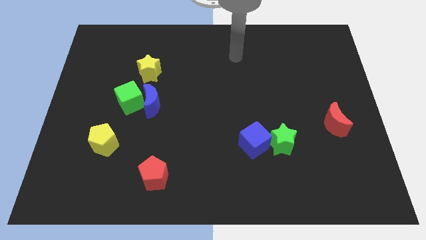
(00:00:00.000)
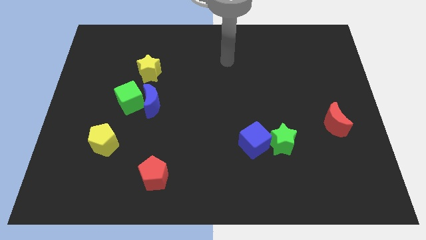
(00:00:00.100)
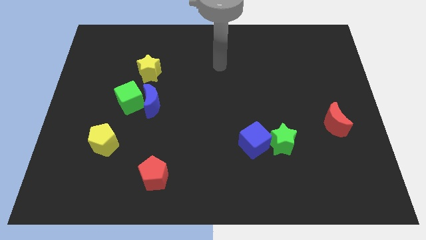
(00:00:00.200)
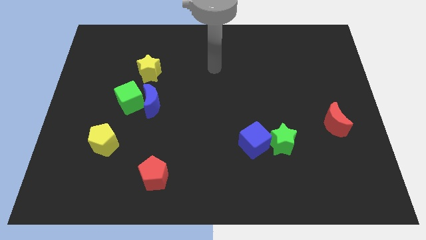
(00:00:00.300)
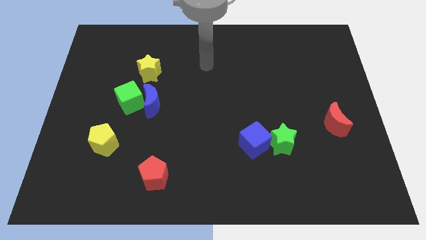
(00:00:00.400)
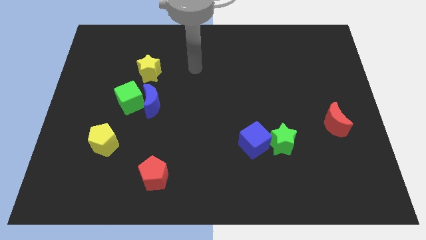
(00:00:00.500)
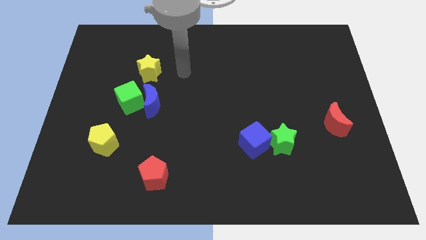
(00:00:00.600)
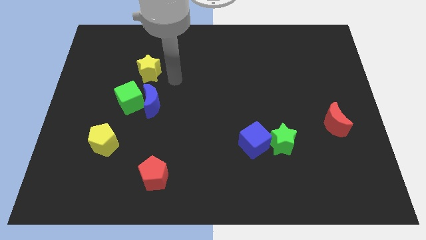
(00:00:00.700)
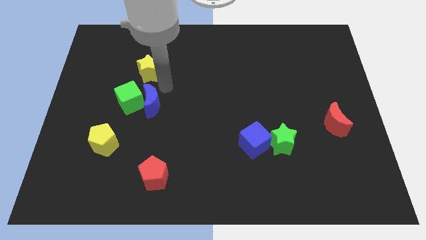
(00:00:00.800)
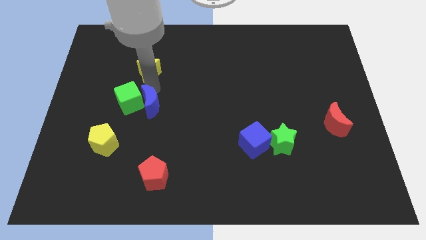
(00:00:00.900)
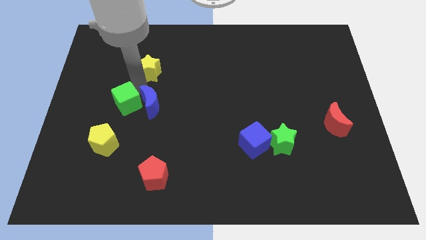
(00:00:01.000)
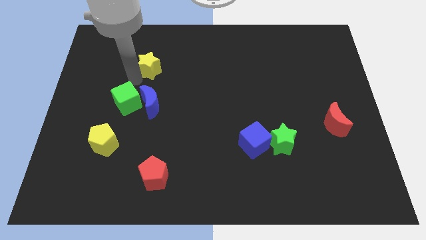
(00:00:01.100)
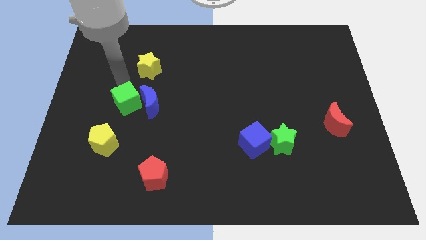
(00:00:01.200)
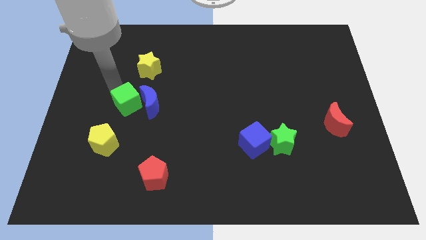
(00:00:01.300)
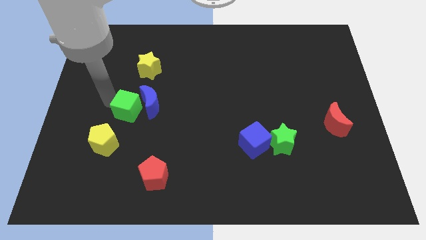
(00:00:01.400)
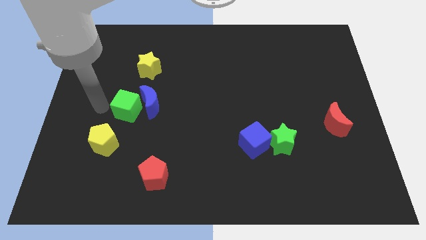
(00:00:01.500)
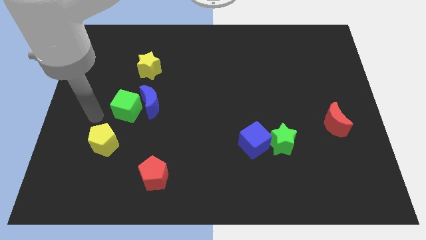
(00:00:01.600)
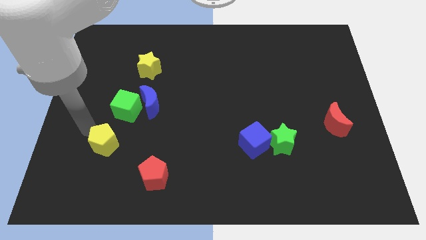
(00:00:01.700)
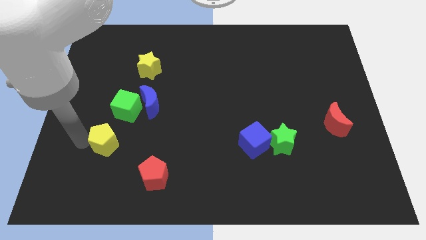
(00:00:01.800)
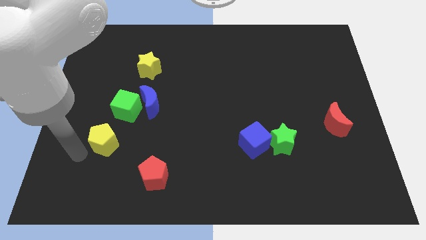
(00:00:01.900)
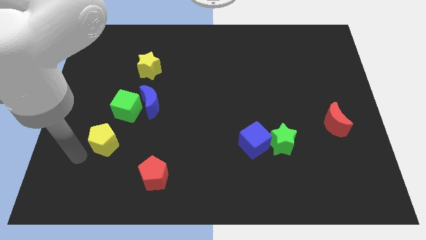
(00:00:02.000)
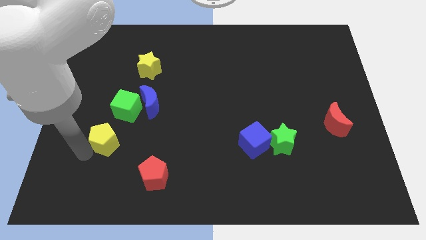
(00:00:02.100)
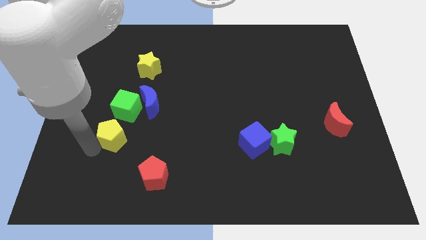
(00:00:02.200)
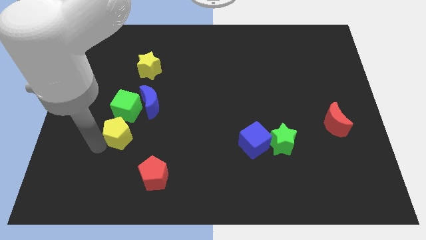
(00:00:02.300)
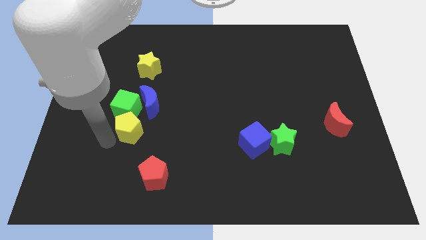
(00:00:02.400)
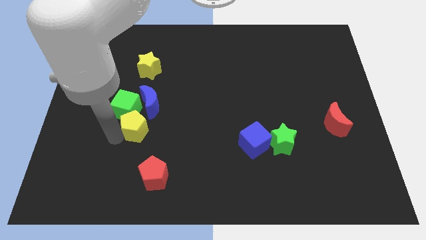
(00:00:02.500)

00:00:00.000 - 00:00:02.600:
slightly push the yellow pentagon up and right

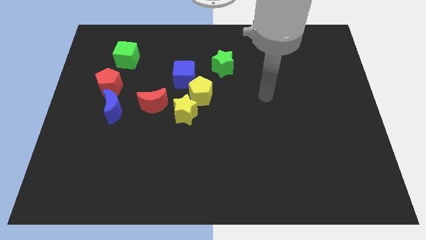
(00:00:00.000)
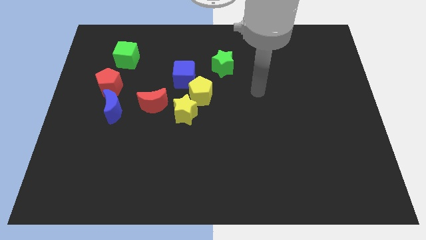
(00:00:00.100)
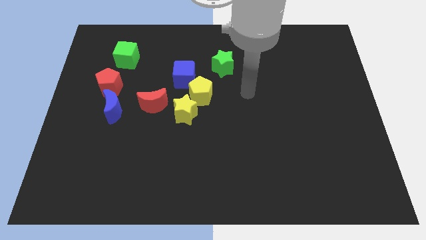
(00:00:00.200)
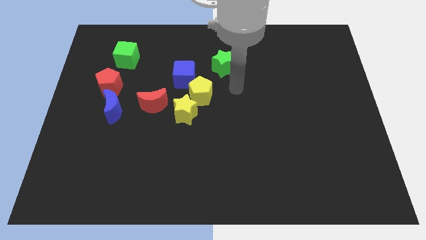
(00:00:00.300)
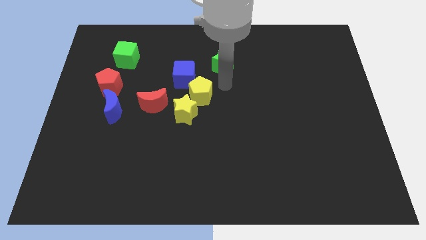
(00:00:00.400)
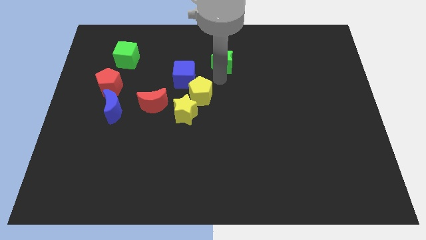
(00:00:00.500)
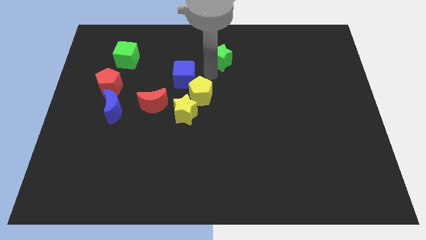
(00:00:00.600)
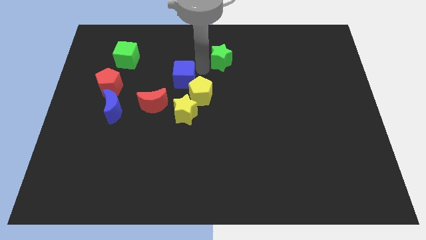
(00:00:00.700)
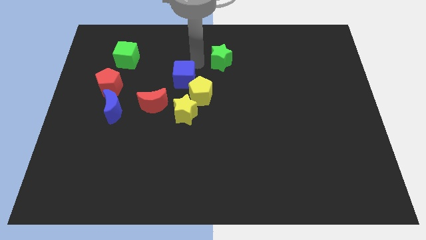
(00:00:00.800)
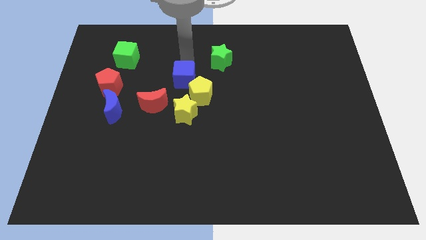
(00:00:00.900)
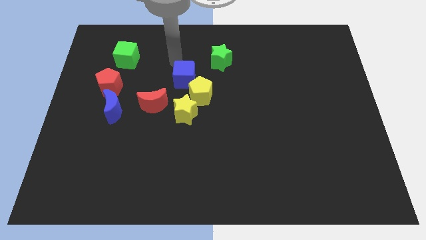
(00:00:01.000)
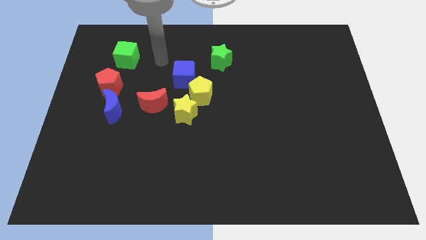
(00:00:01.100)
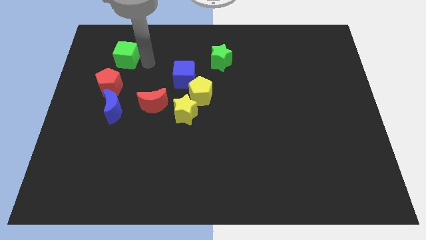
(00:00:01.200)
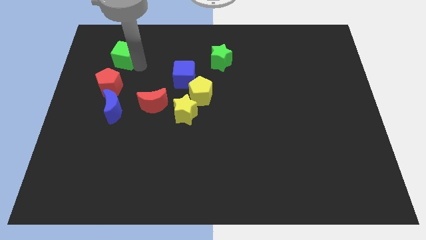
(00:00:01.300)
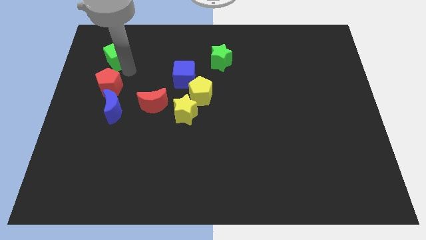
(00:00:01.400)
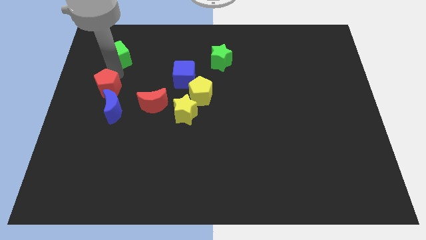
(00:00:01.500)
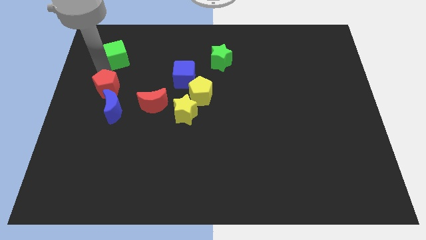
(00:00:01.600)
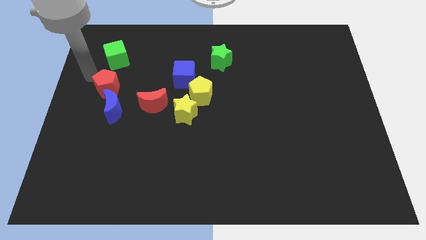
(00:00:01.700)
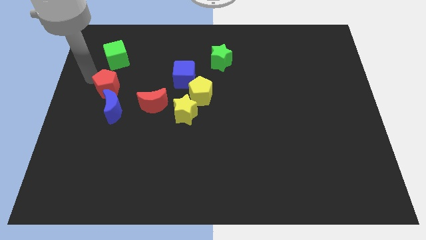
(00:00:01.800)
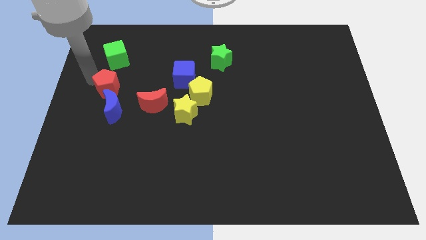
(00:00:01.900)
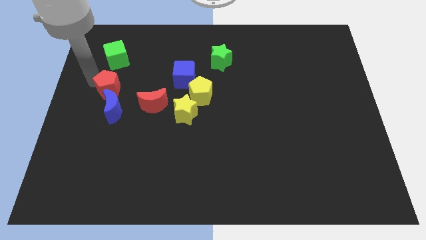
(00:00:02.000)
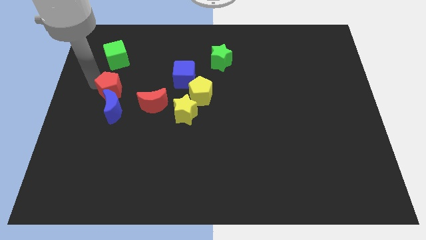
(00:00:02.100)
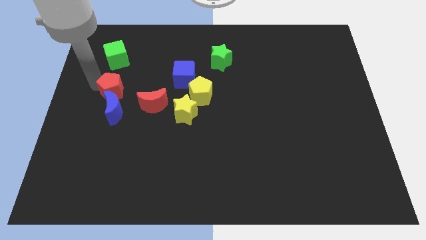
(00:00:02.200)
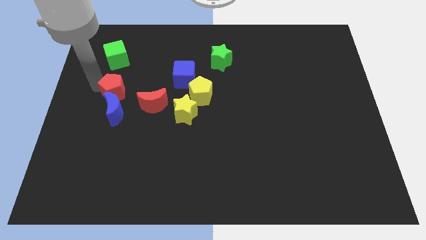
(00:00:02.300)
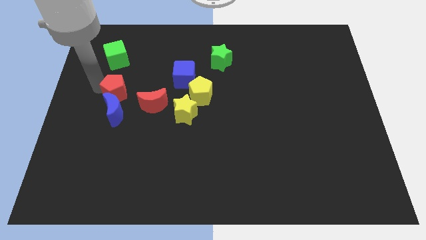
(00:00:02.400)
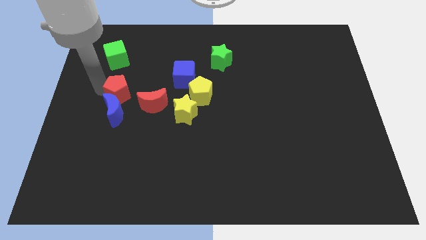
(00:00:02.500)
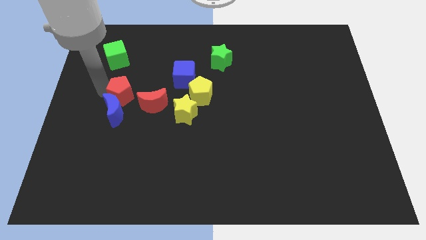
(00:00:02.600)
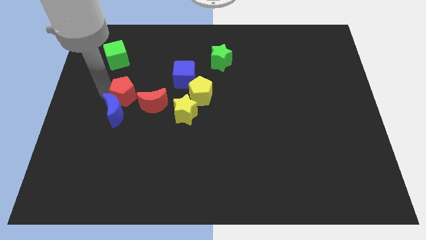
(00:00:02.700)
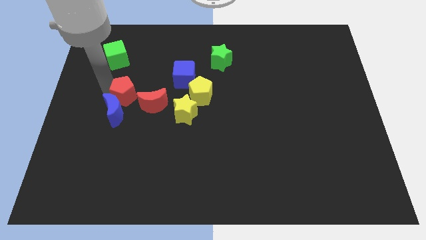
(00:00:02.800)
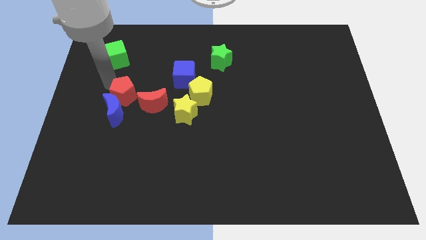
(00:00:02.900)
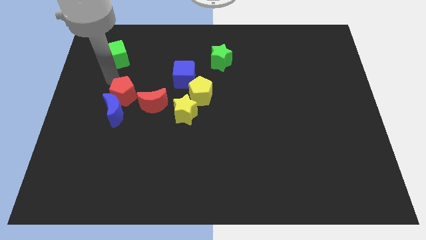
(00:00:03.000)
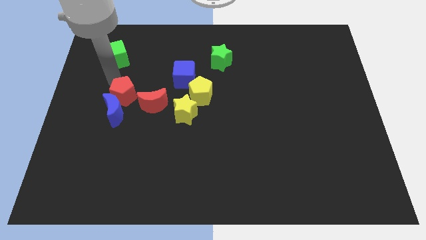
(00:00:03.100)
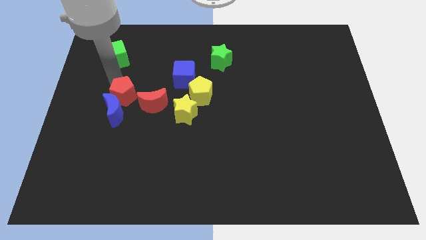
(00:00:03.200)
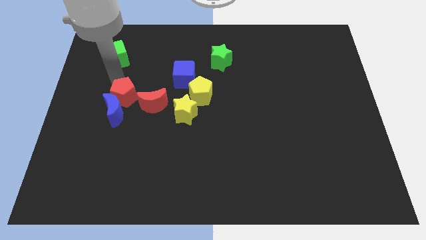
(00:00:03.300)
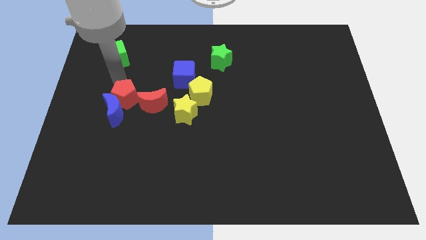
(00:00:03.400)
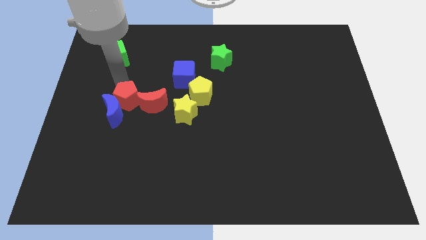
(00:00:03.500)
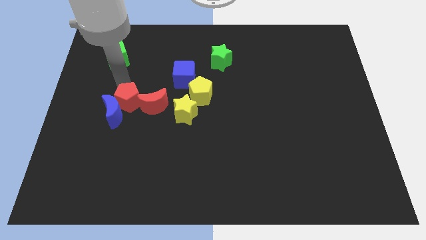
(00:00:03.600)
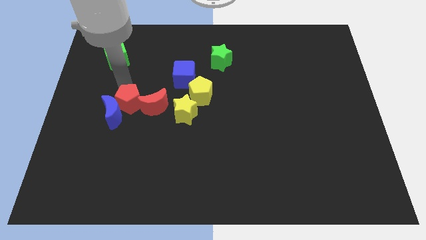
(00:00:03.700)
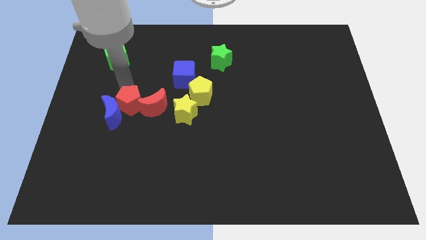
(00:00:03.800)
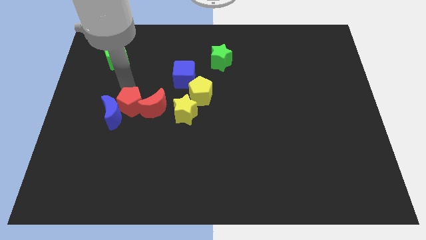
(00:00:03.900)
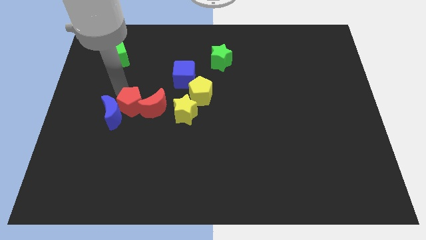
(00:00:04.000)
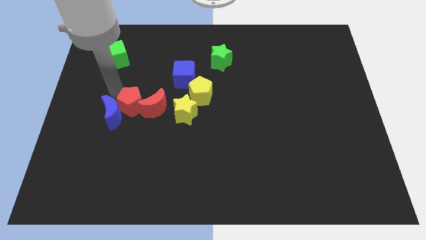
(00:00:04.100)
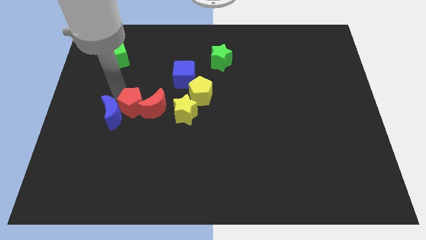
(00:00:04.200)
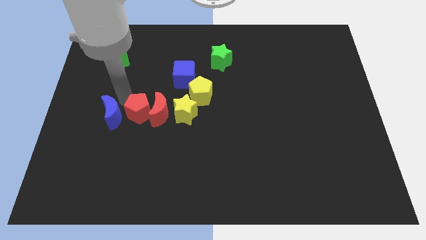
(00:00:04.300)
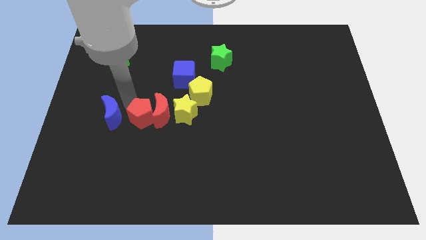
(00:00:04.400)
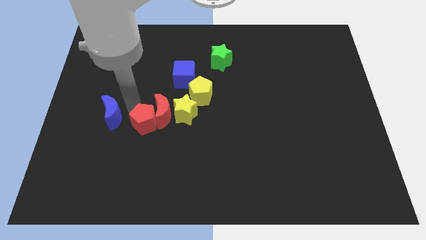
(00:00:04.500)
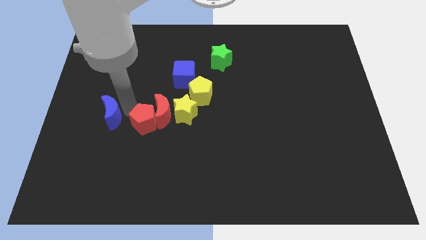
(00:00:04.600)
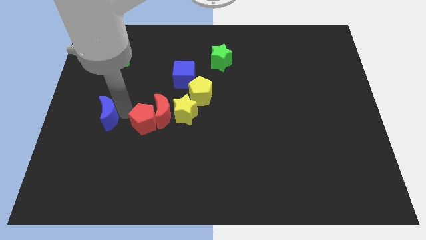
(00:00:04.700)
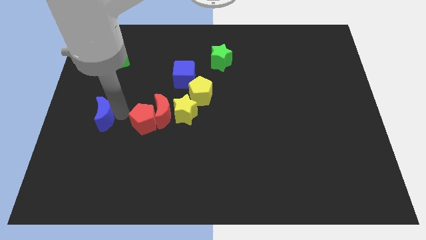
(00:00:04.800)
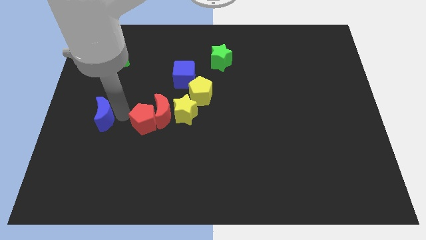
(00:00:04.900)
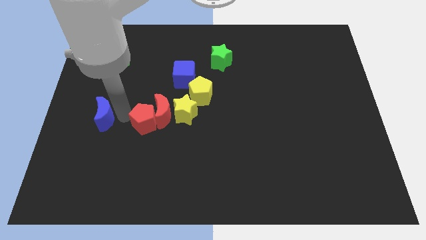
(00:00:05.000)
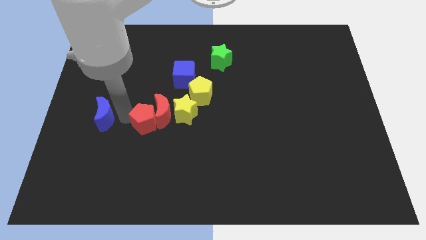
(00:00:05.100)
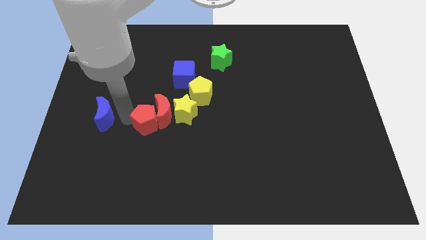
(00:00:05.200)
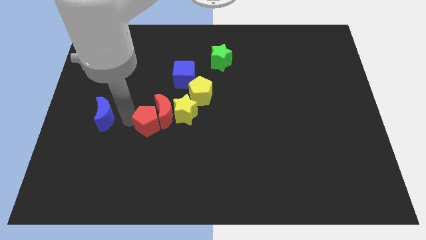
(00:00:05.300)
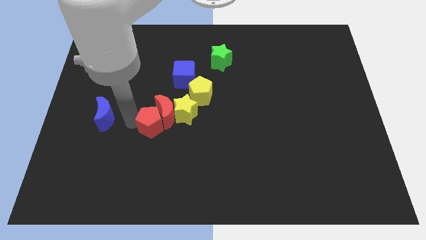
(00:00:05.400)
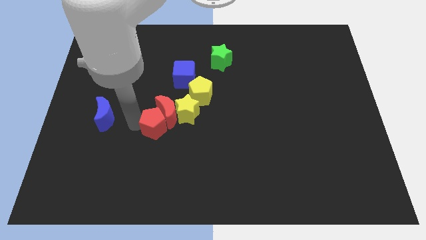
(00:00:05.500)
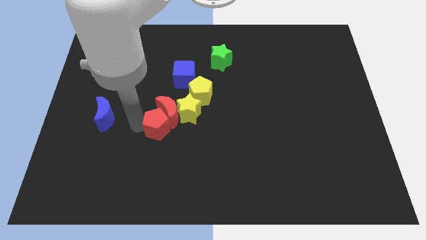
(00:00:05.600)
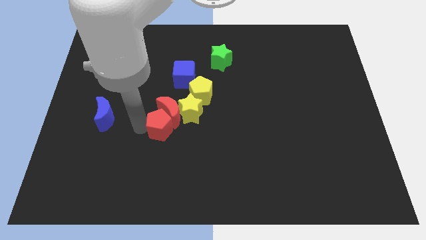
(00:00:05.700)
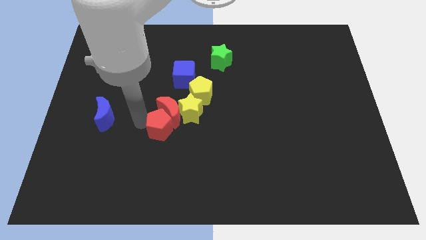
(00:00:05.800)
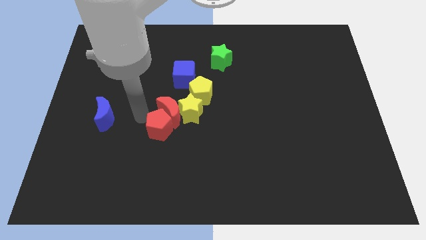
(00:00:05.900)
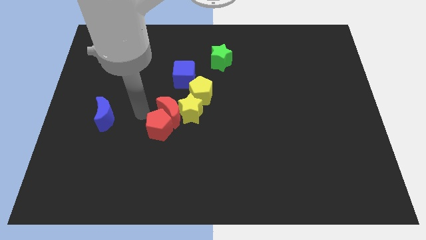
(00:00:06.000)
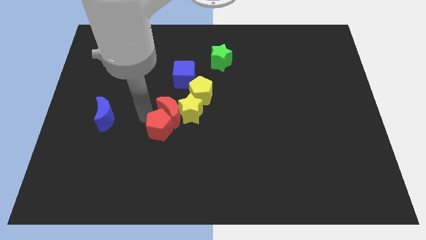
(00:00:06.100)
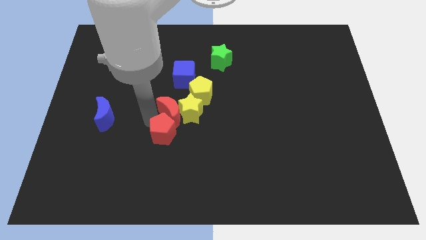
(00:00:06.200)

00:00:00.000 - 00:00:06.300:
slide the red pentagon diagonally down and right
